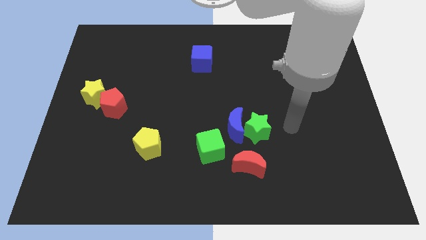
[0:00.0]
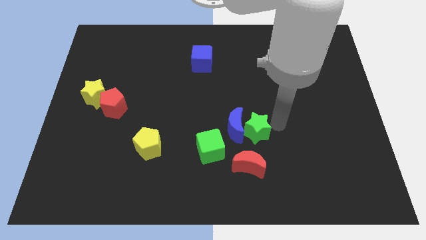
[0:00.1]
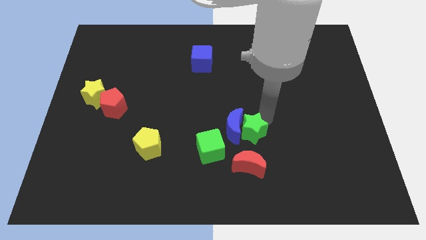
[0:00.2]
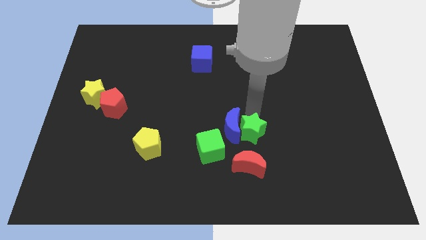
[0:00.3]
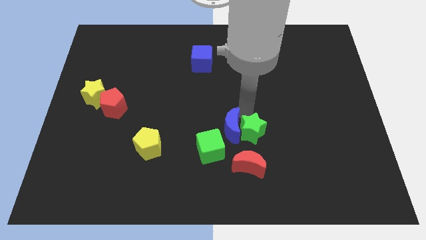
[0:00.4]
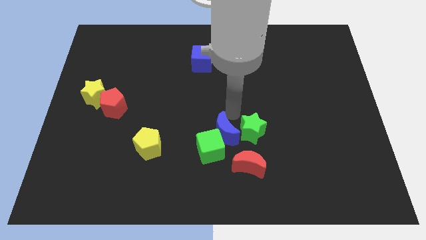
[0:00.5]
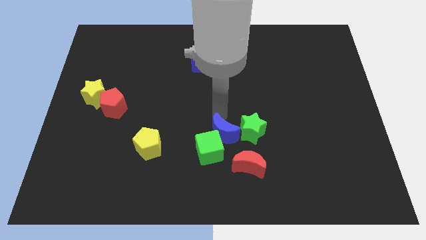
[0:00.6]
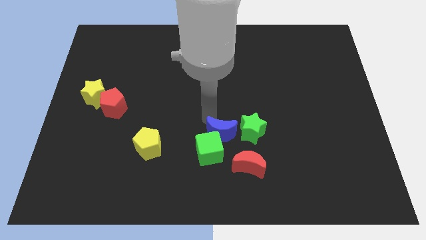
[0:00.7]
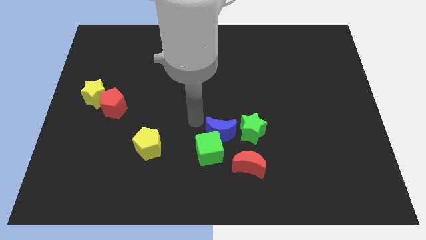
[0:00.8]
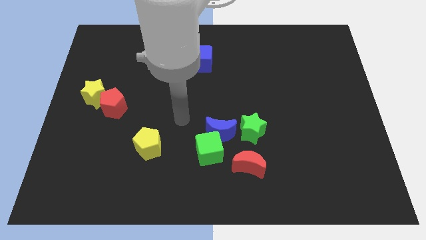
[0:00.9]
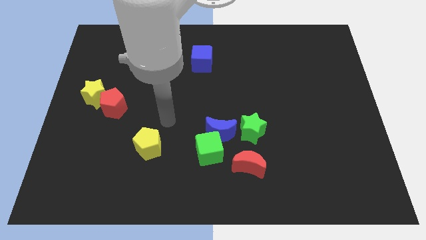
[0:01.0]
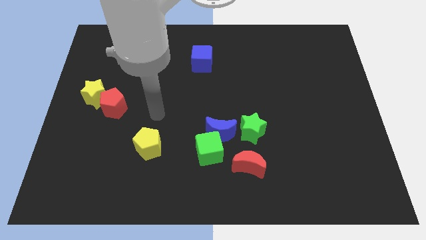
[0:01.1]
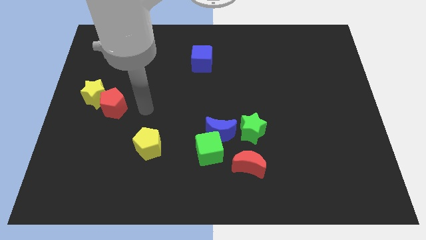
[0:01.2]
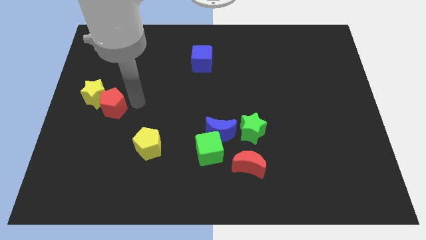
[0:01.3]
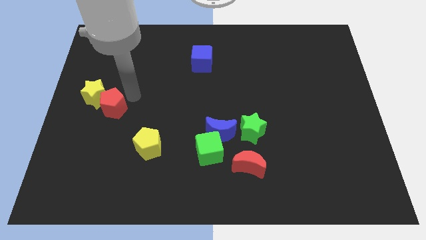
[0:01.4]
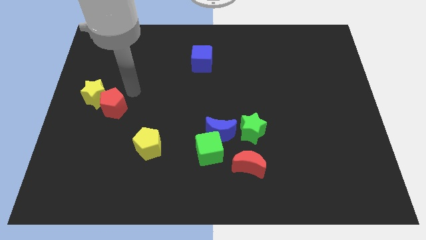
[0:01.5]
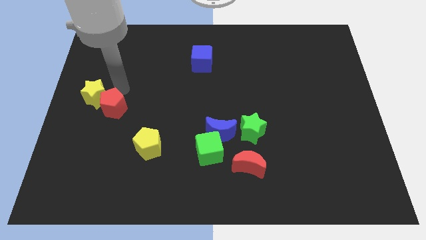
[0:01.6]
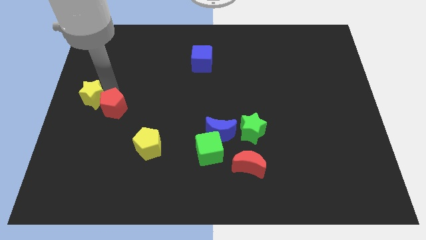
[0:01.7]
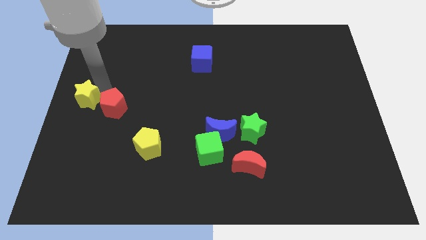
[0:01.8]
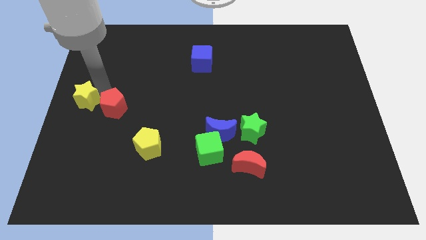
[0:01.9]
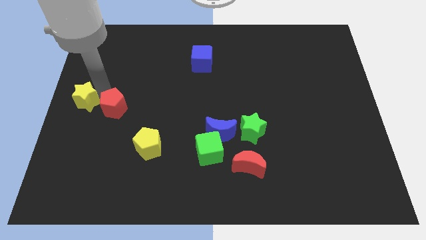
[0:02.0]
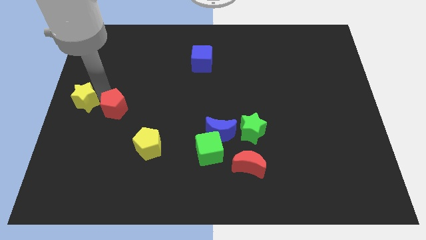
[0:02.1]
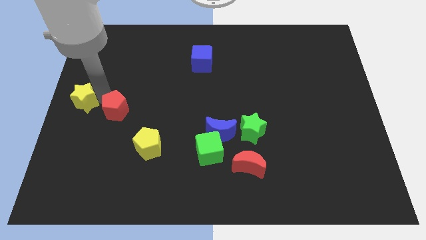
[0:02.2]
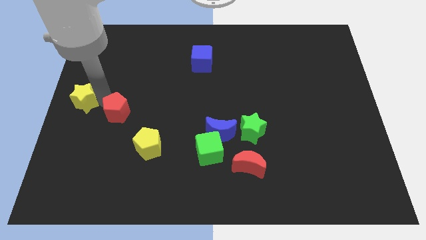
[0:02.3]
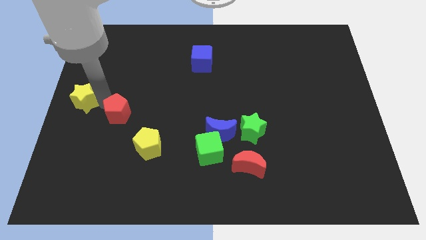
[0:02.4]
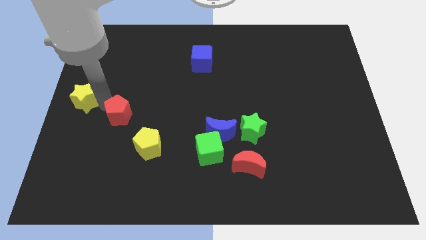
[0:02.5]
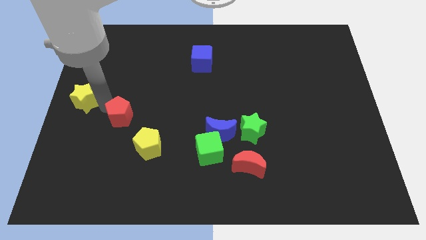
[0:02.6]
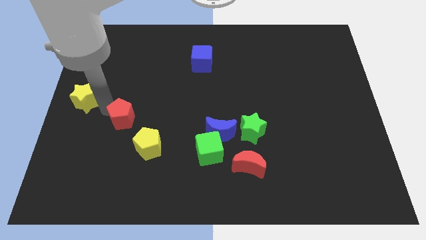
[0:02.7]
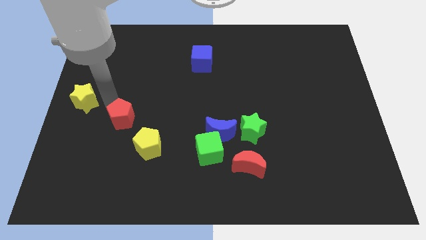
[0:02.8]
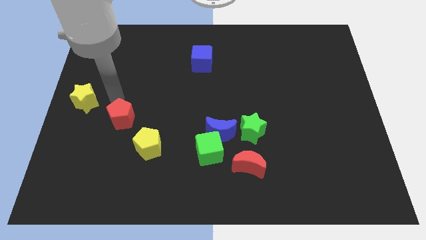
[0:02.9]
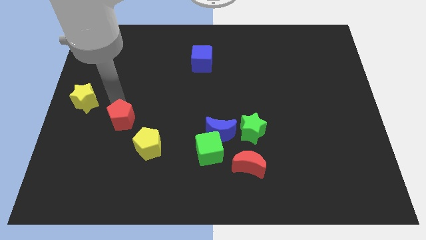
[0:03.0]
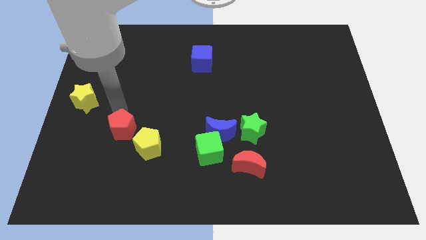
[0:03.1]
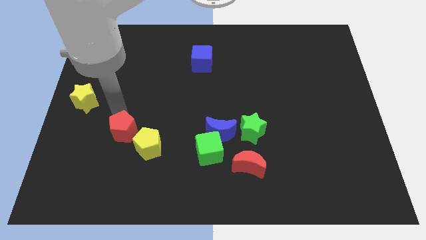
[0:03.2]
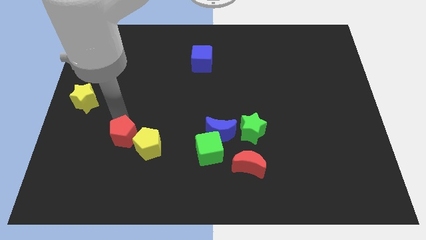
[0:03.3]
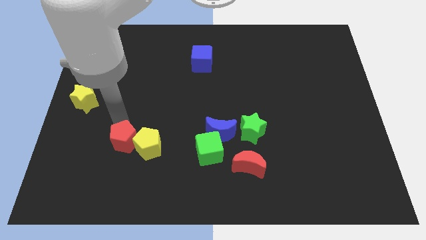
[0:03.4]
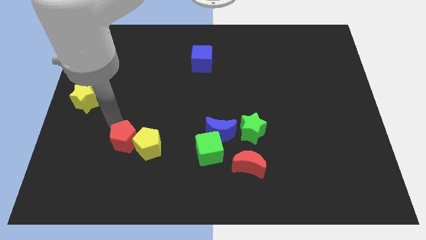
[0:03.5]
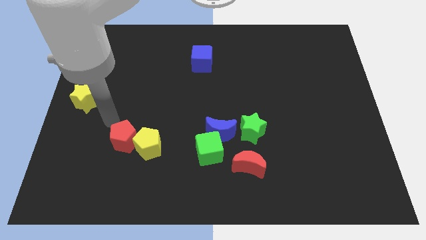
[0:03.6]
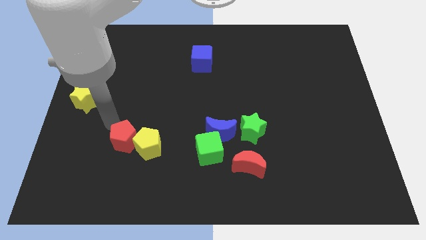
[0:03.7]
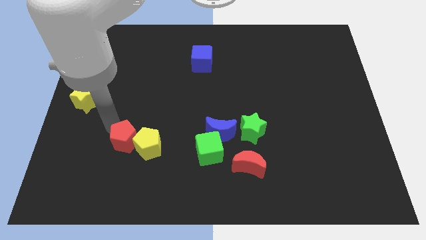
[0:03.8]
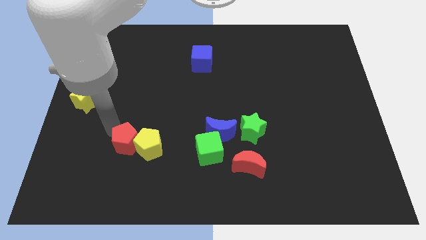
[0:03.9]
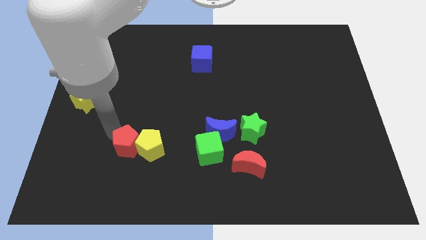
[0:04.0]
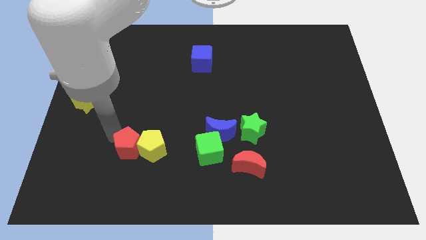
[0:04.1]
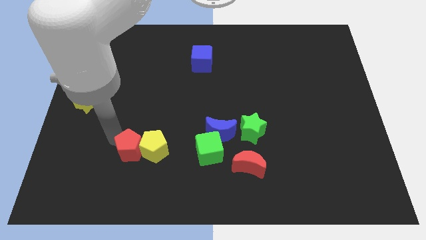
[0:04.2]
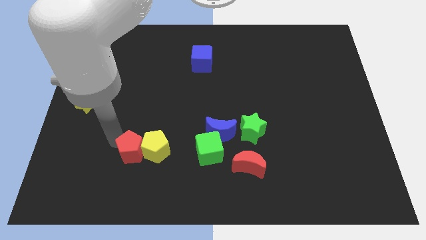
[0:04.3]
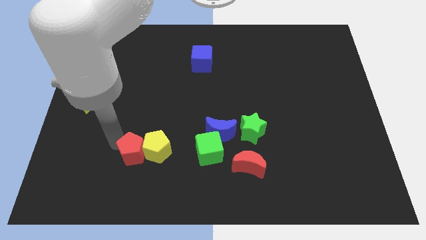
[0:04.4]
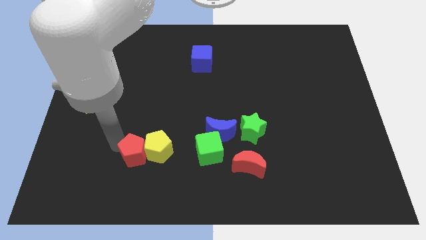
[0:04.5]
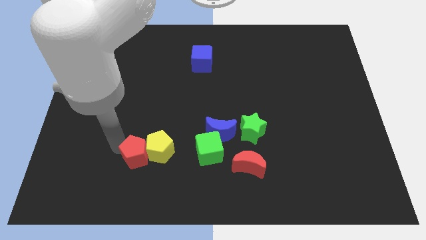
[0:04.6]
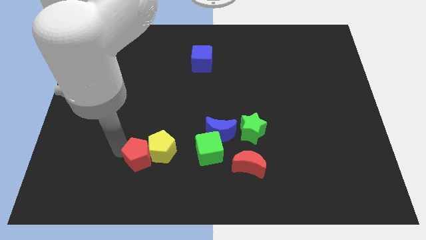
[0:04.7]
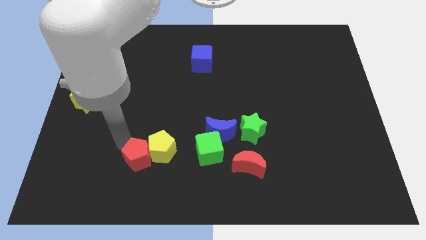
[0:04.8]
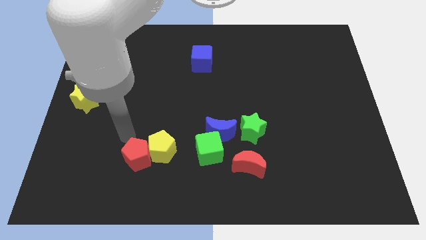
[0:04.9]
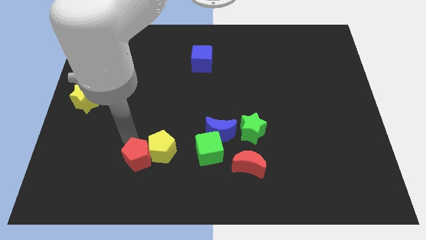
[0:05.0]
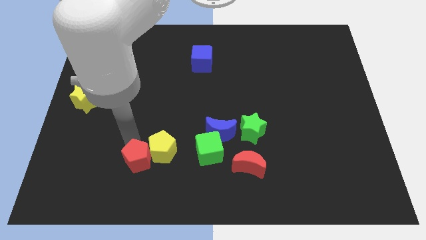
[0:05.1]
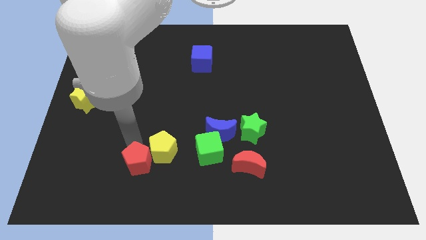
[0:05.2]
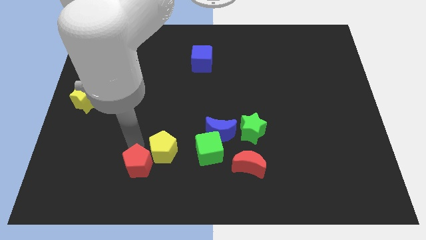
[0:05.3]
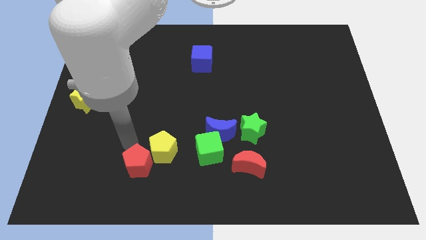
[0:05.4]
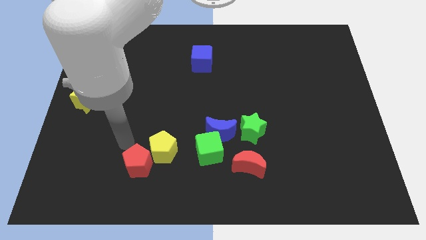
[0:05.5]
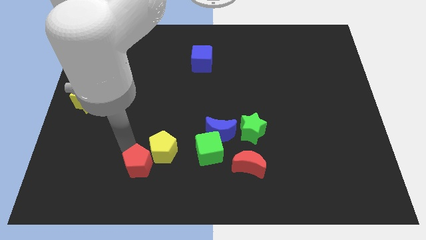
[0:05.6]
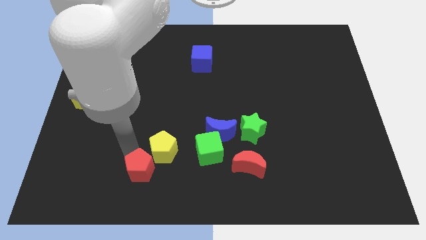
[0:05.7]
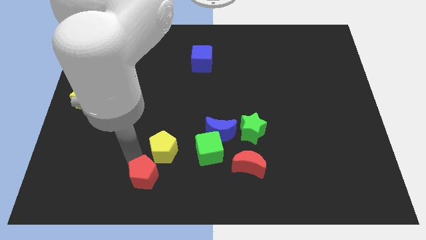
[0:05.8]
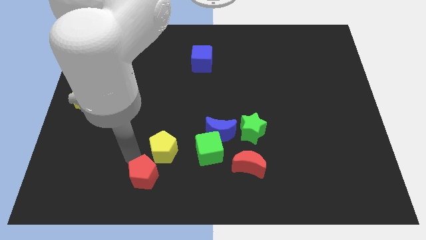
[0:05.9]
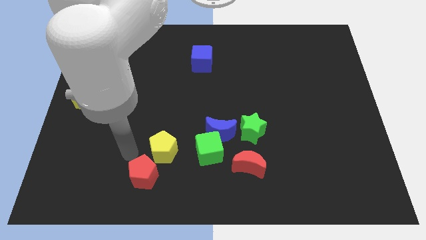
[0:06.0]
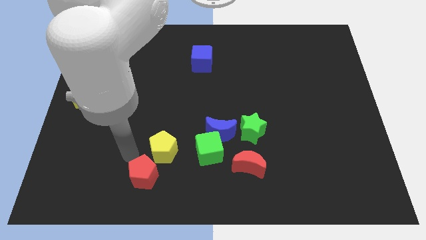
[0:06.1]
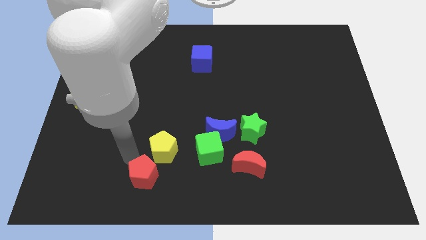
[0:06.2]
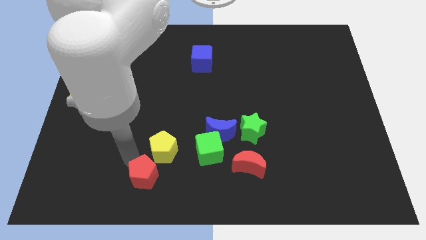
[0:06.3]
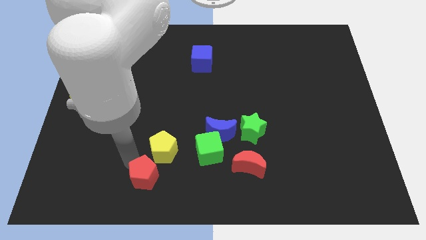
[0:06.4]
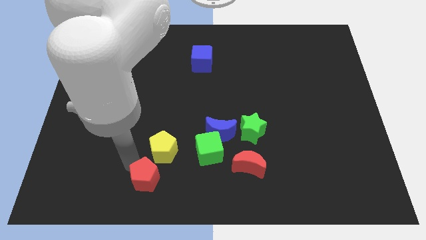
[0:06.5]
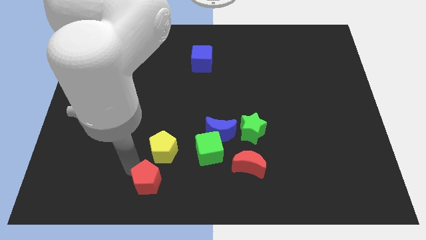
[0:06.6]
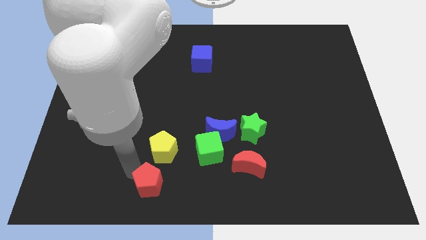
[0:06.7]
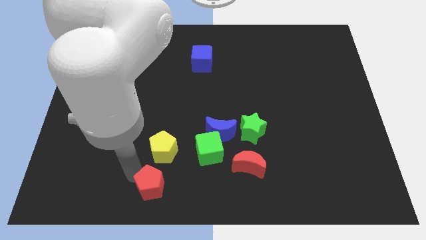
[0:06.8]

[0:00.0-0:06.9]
move the red pentagon to the bottom

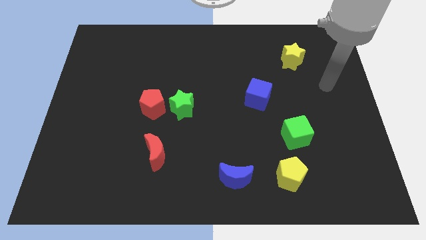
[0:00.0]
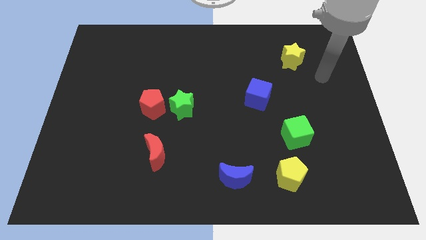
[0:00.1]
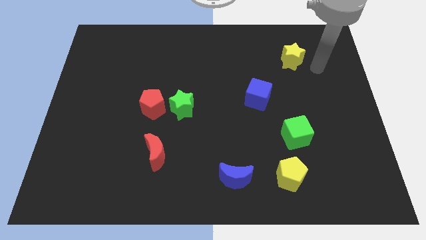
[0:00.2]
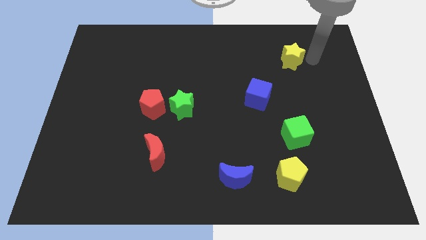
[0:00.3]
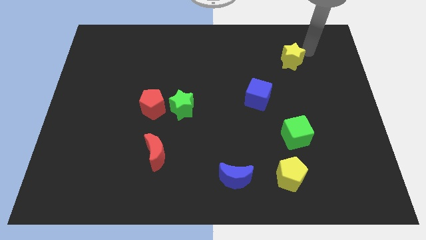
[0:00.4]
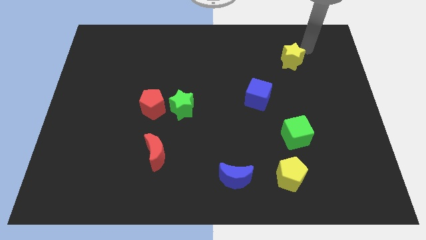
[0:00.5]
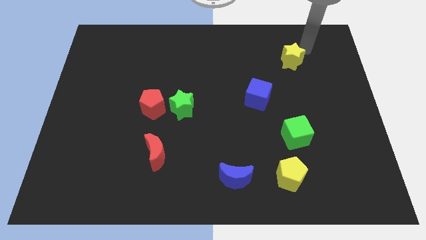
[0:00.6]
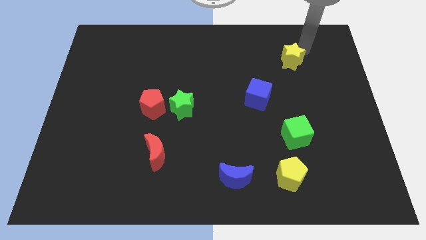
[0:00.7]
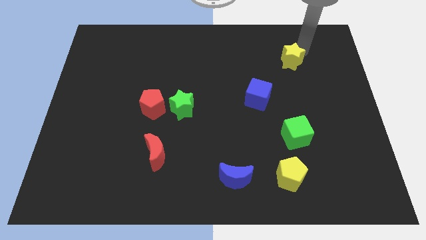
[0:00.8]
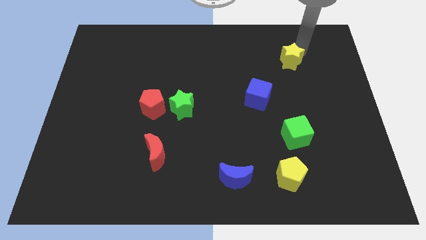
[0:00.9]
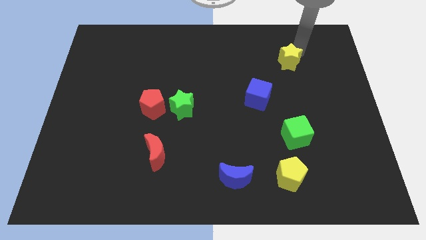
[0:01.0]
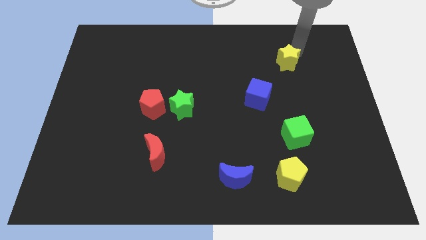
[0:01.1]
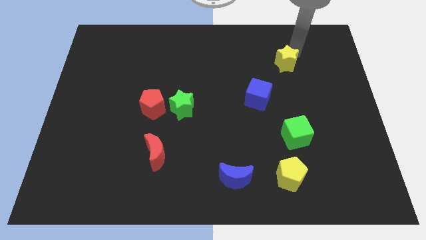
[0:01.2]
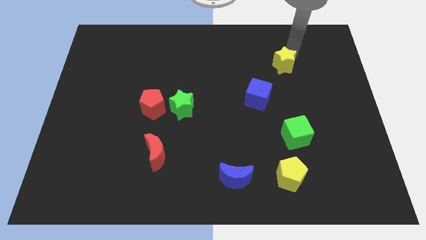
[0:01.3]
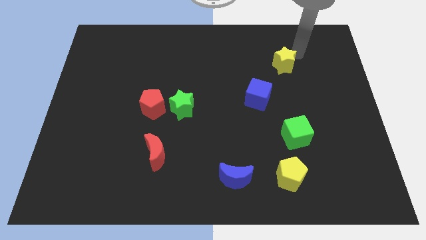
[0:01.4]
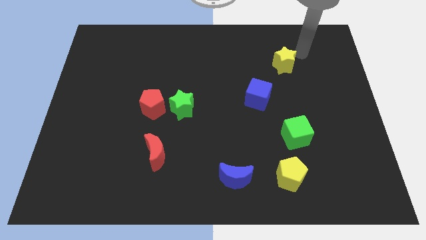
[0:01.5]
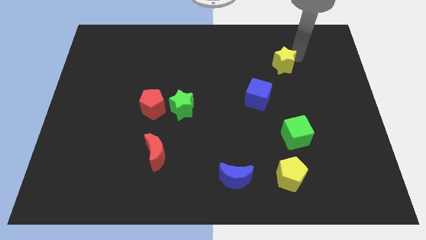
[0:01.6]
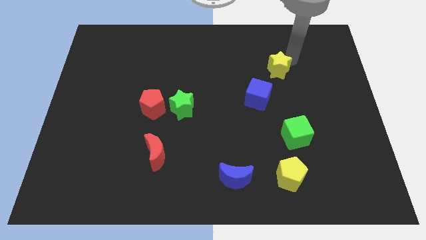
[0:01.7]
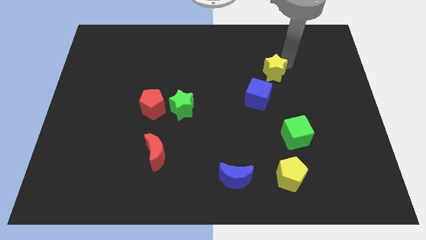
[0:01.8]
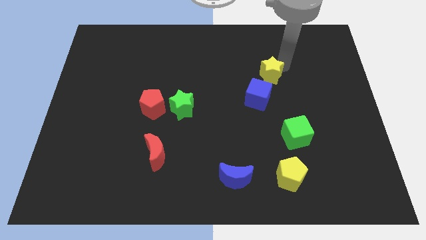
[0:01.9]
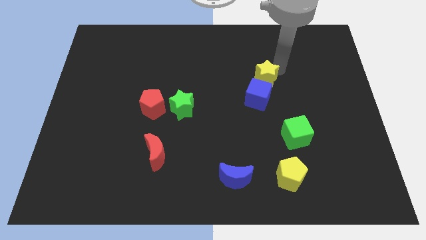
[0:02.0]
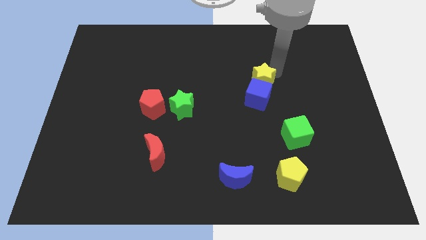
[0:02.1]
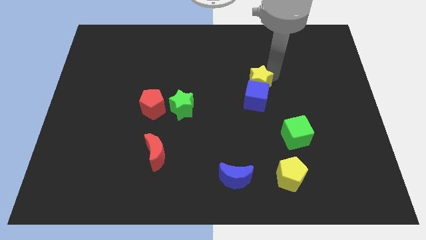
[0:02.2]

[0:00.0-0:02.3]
put the yellow star to the center of the board
